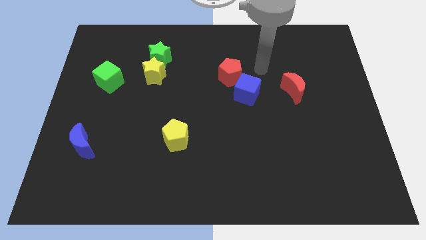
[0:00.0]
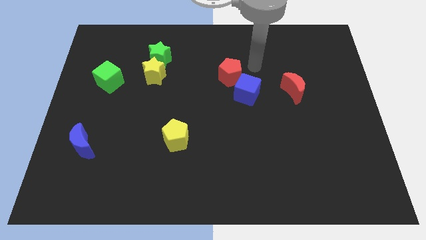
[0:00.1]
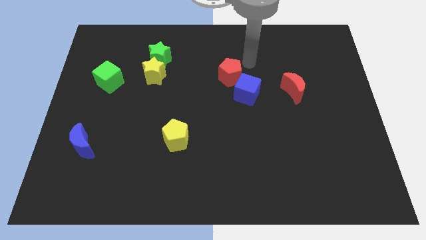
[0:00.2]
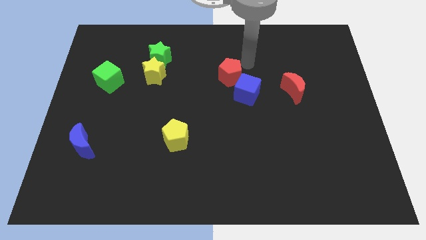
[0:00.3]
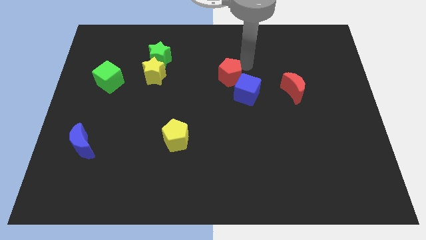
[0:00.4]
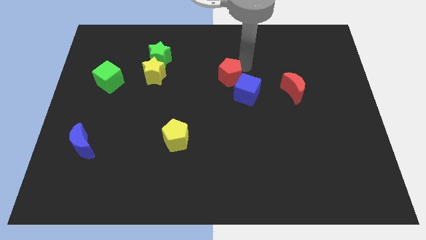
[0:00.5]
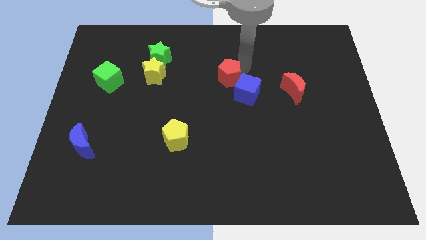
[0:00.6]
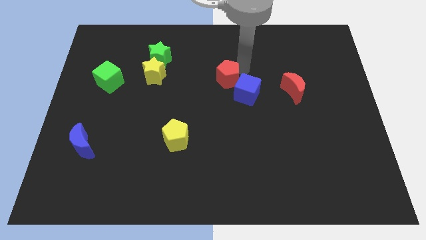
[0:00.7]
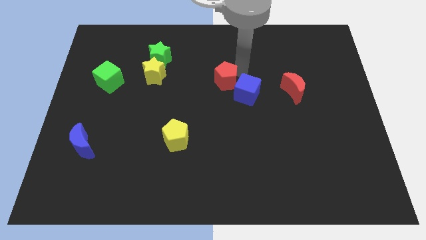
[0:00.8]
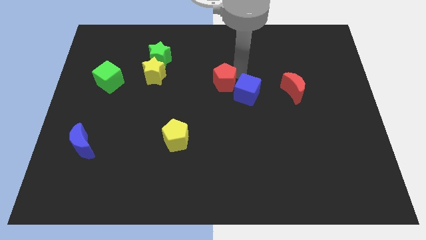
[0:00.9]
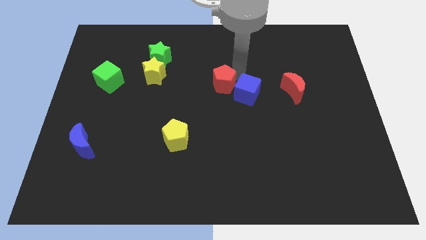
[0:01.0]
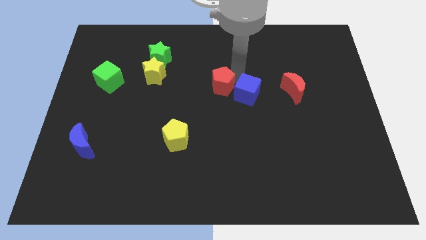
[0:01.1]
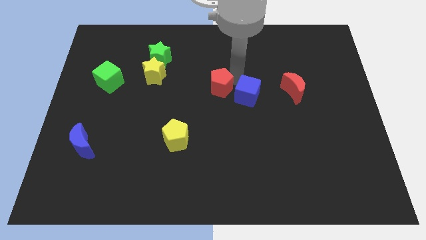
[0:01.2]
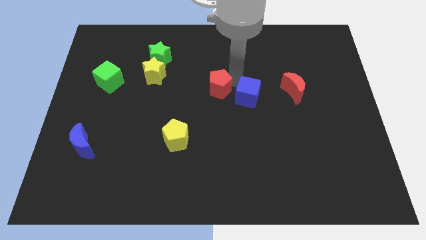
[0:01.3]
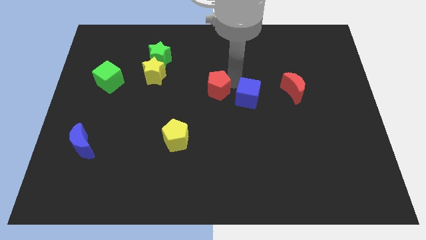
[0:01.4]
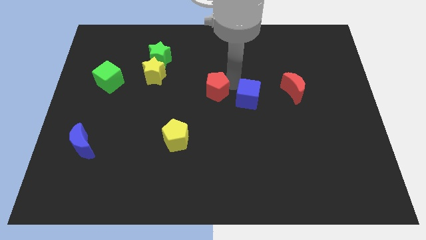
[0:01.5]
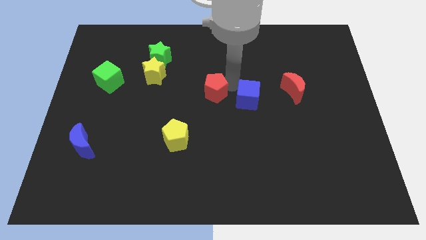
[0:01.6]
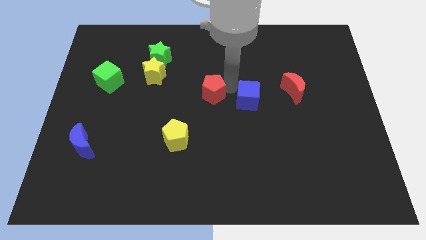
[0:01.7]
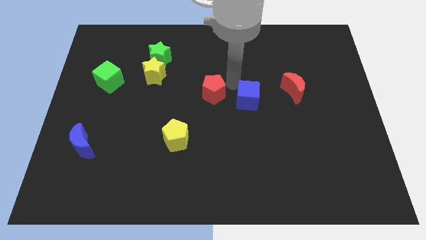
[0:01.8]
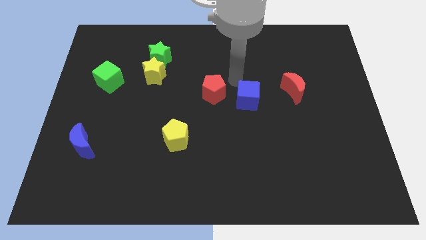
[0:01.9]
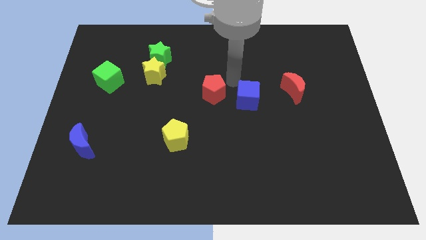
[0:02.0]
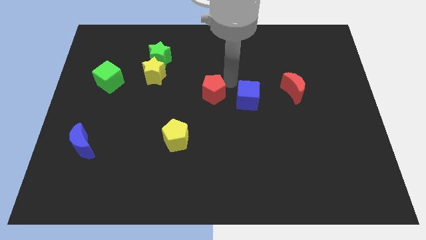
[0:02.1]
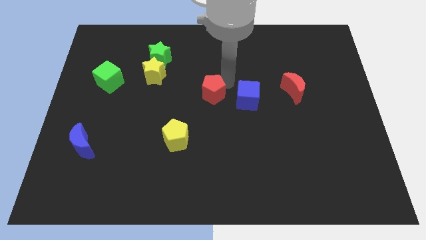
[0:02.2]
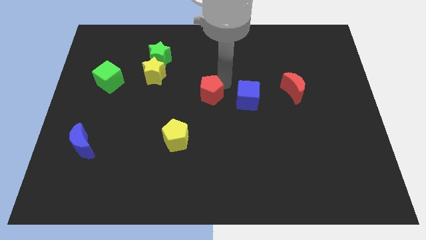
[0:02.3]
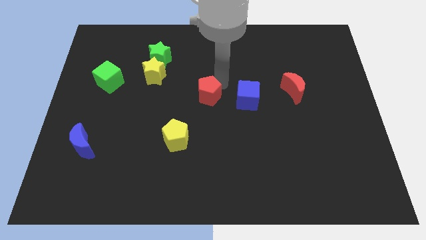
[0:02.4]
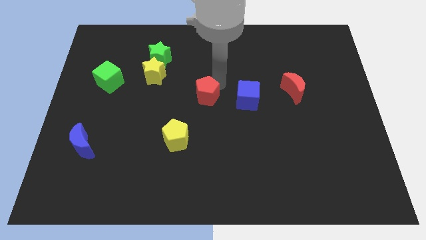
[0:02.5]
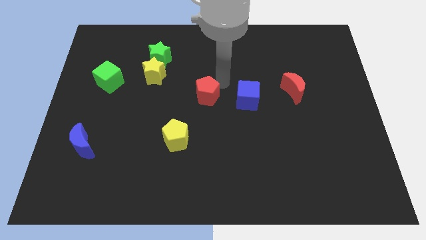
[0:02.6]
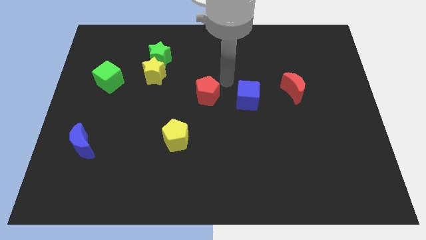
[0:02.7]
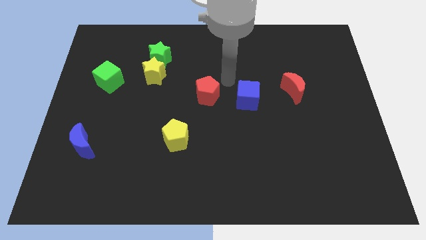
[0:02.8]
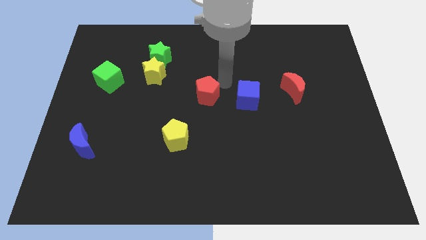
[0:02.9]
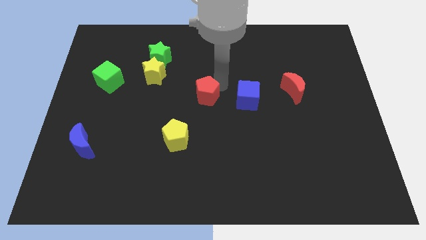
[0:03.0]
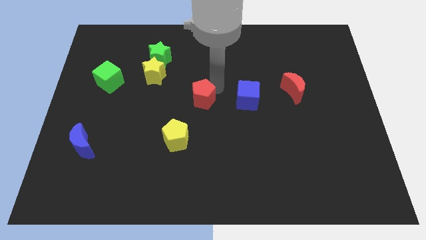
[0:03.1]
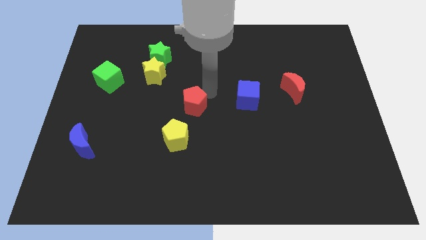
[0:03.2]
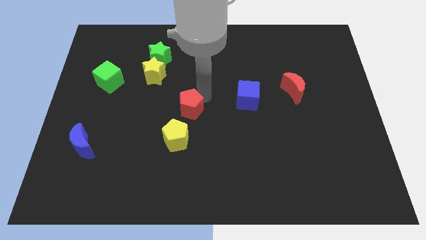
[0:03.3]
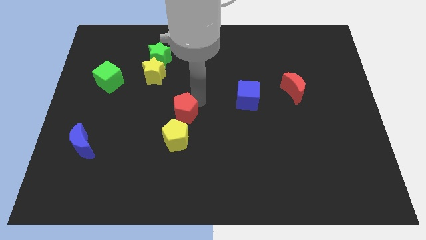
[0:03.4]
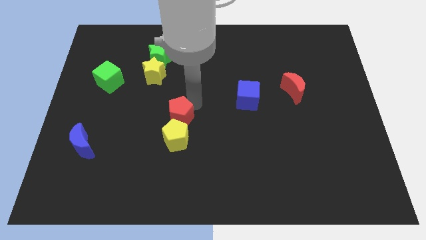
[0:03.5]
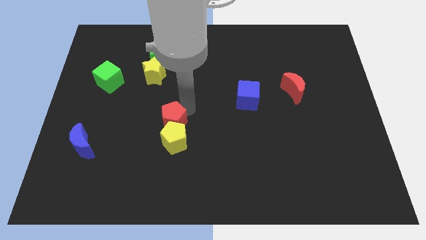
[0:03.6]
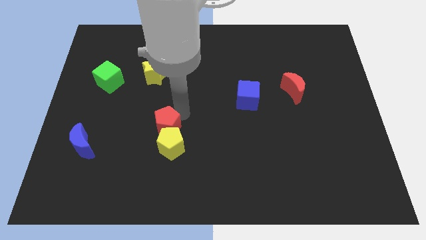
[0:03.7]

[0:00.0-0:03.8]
push the red pentagon down and then left

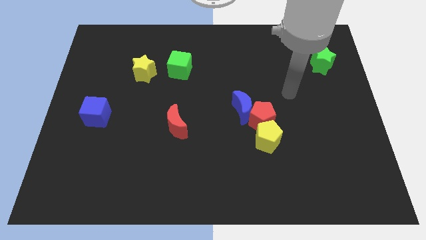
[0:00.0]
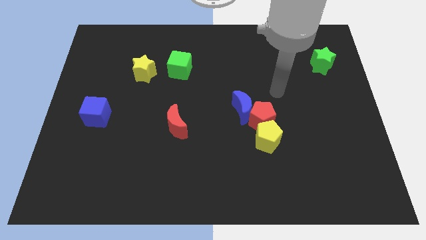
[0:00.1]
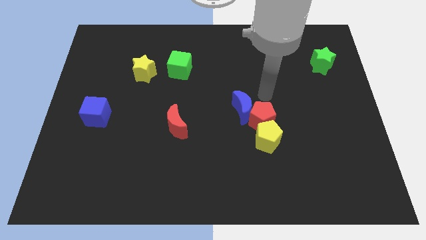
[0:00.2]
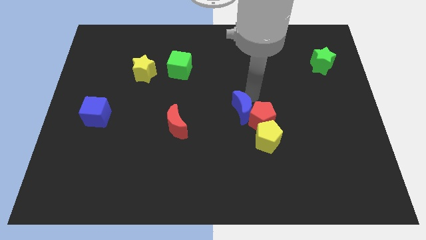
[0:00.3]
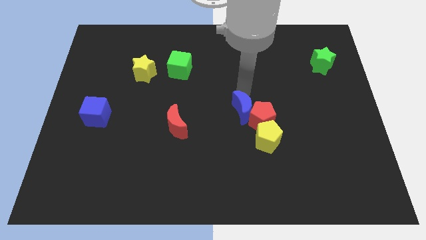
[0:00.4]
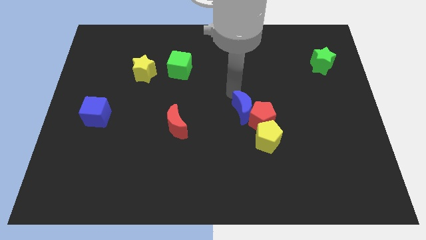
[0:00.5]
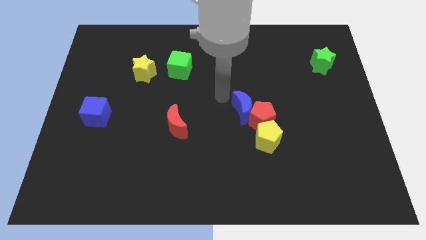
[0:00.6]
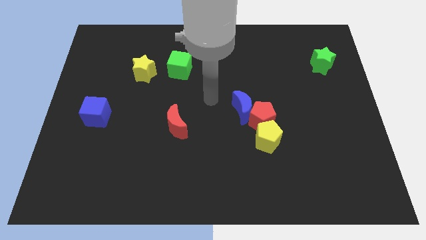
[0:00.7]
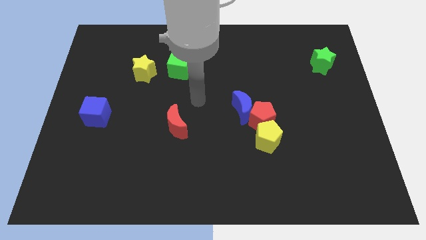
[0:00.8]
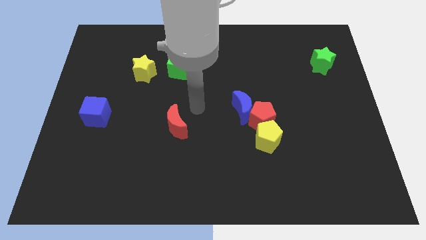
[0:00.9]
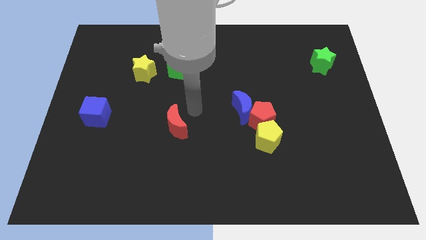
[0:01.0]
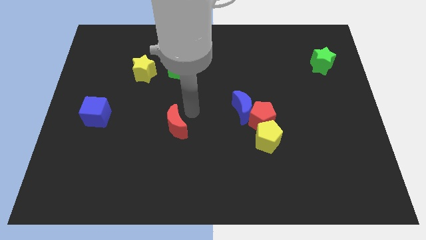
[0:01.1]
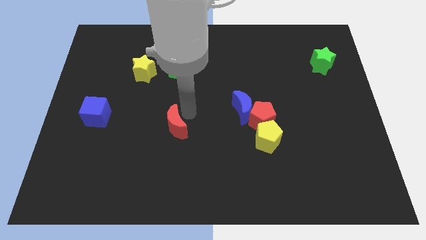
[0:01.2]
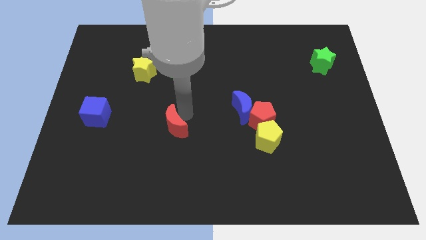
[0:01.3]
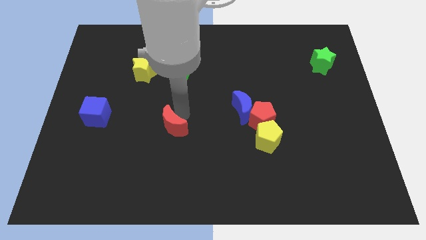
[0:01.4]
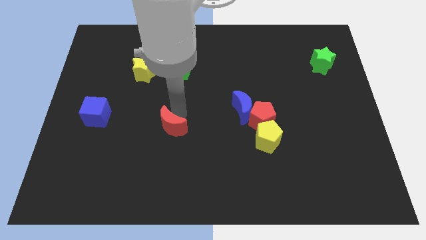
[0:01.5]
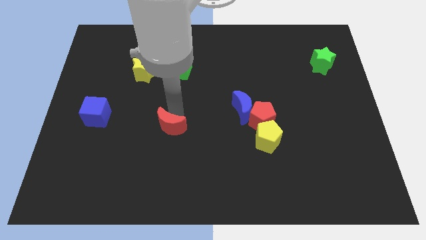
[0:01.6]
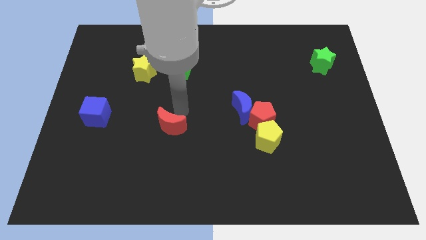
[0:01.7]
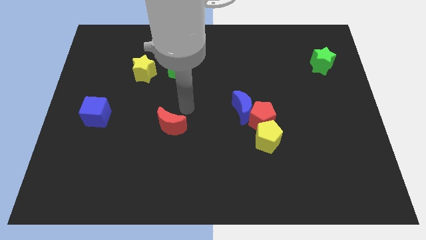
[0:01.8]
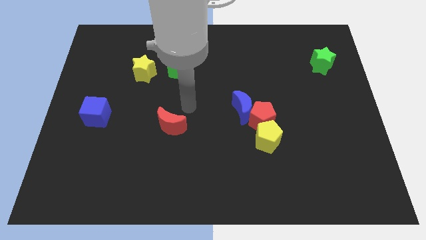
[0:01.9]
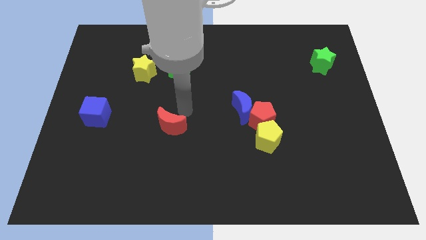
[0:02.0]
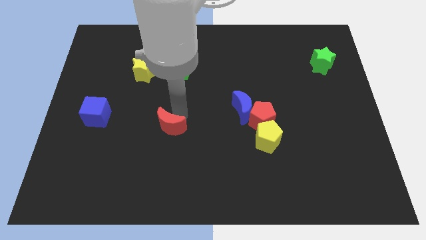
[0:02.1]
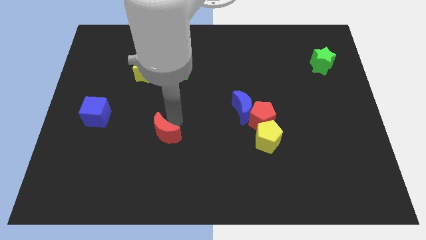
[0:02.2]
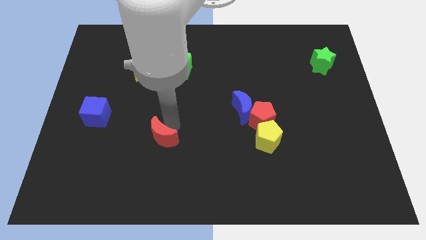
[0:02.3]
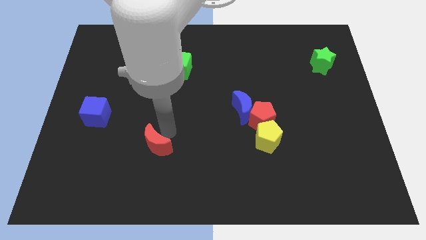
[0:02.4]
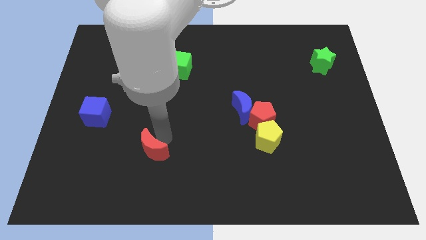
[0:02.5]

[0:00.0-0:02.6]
push the red moon somewhat diagonally downwards and to the left

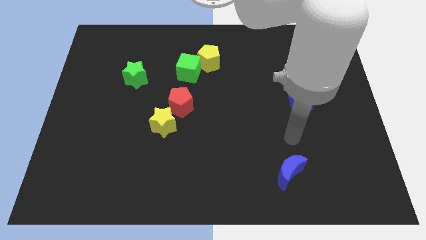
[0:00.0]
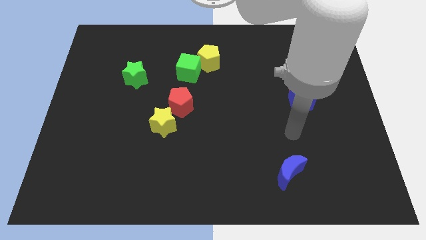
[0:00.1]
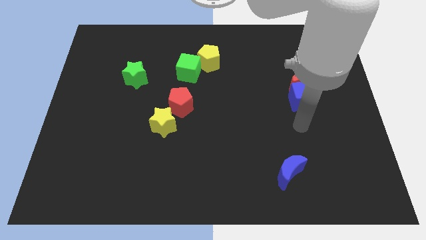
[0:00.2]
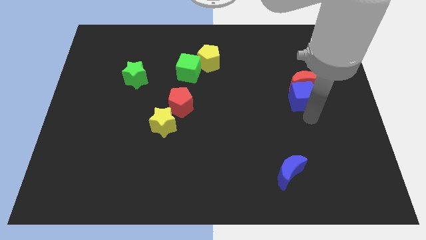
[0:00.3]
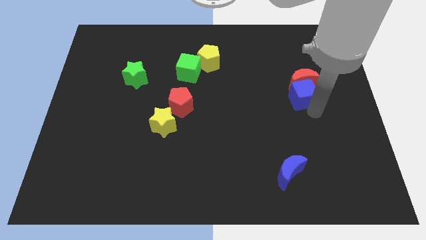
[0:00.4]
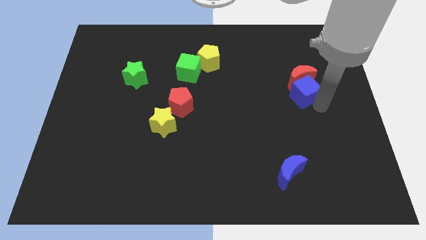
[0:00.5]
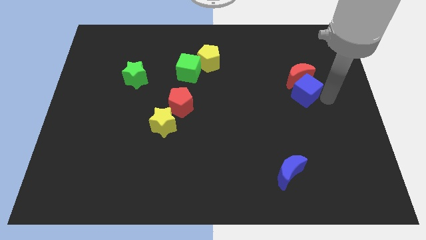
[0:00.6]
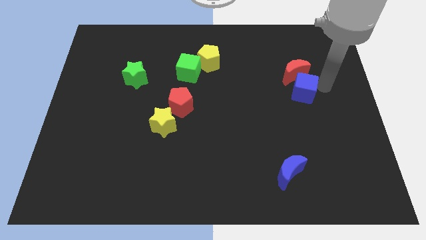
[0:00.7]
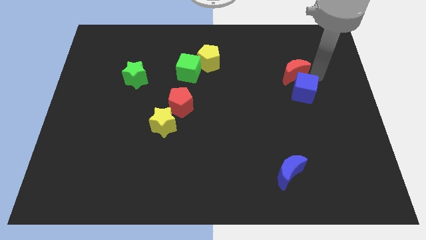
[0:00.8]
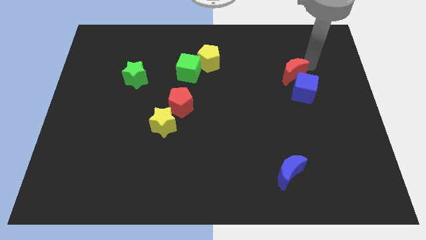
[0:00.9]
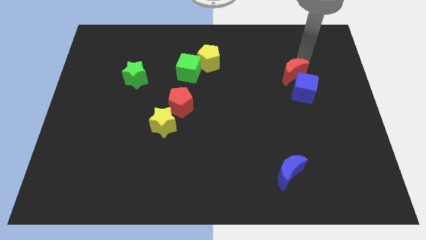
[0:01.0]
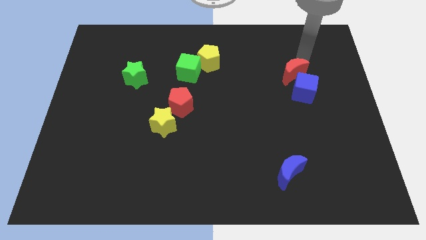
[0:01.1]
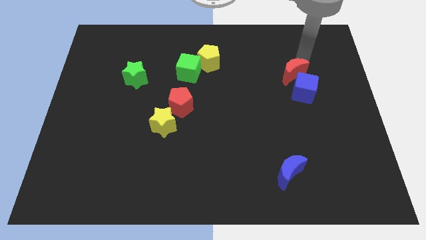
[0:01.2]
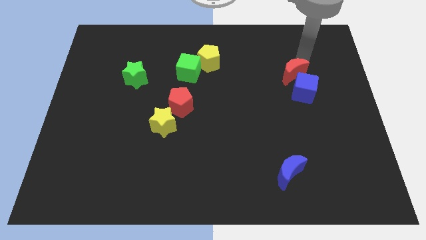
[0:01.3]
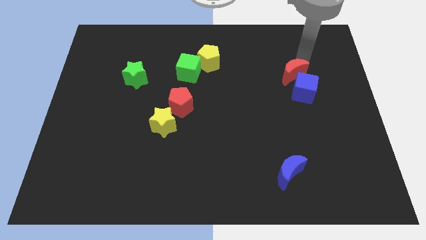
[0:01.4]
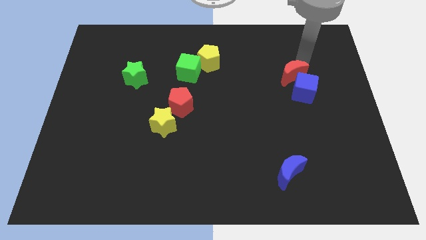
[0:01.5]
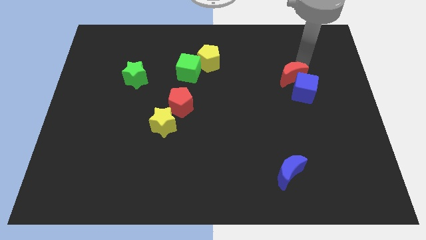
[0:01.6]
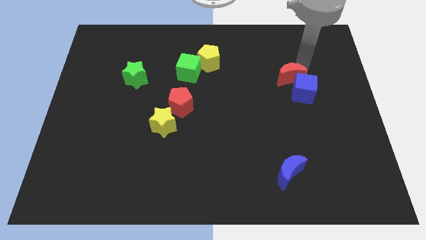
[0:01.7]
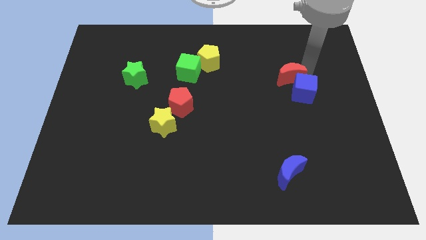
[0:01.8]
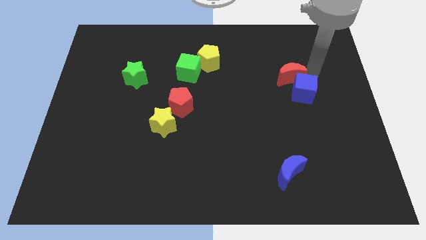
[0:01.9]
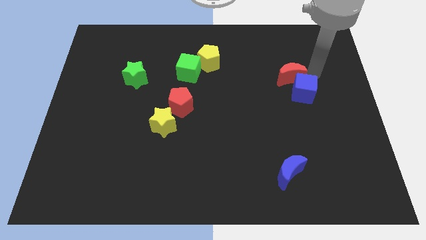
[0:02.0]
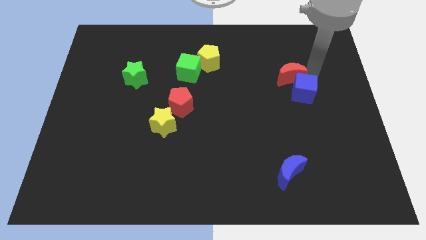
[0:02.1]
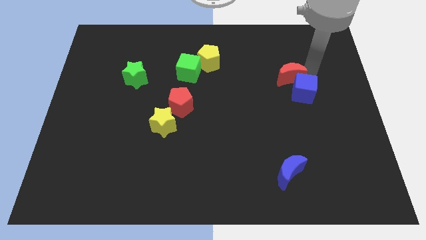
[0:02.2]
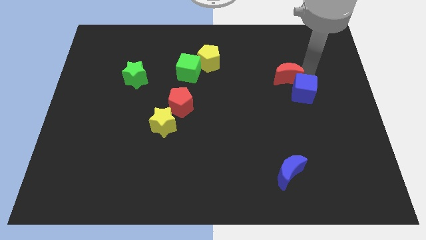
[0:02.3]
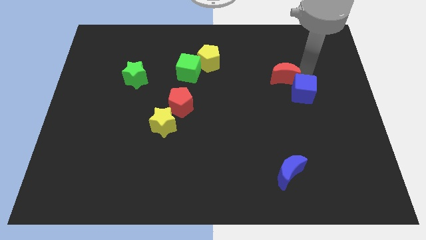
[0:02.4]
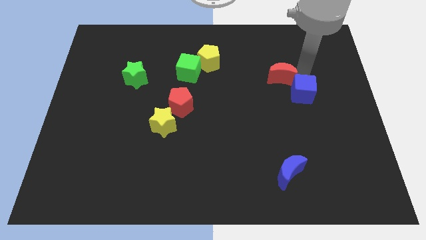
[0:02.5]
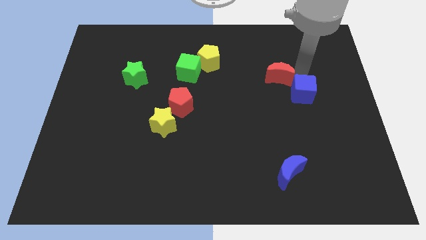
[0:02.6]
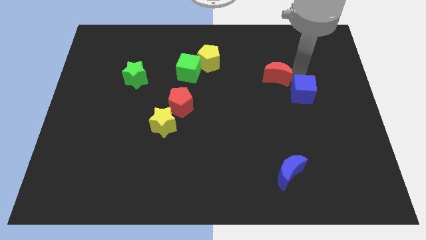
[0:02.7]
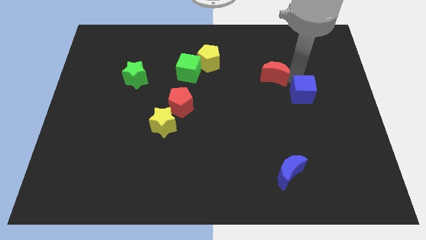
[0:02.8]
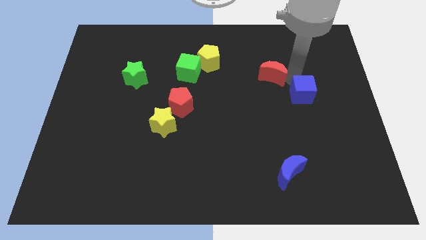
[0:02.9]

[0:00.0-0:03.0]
slightly slide the red moon to the left
